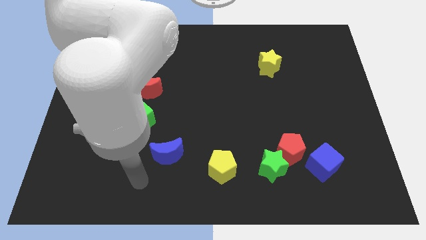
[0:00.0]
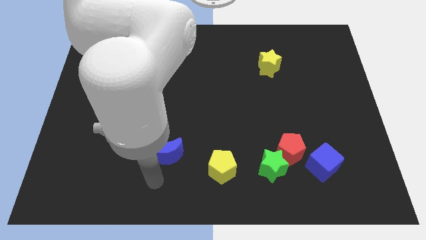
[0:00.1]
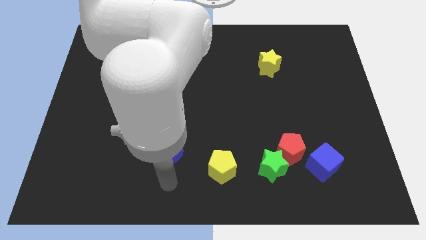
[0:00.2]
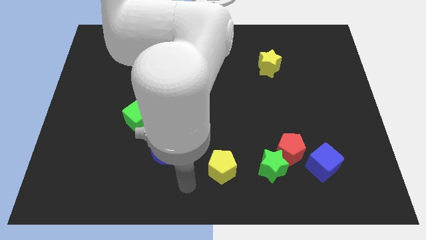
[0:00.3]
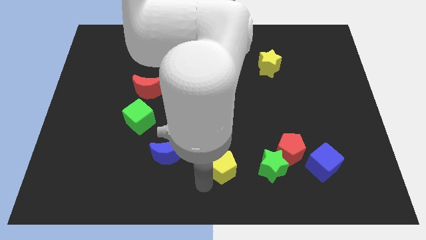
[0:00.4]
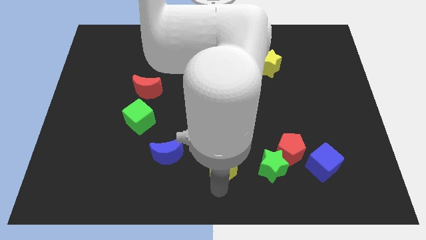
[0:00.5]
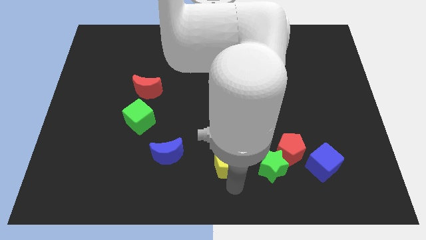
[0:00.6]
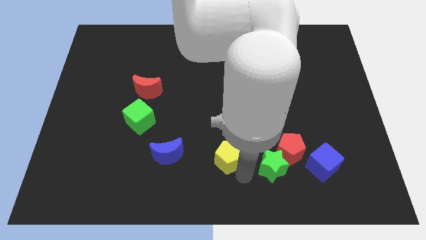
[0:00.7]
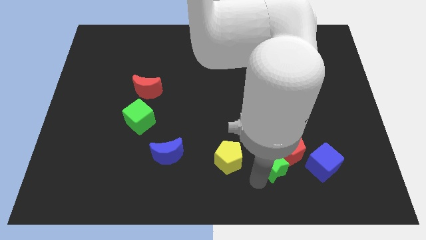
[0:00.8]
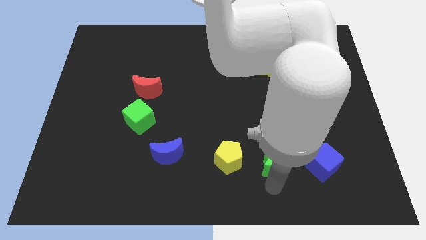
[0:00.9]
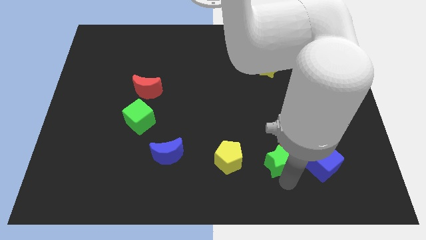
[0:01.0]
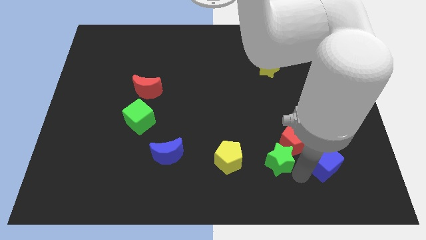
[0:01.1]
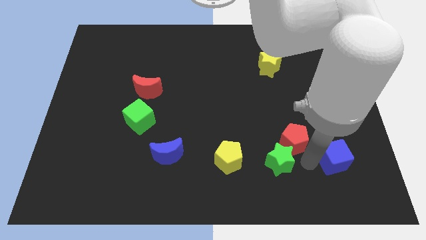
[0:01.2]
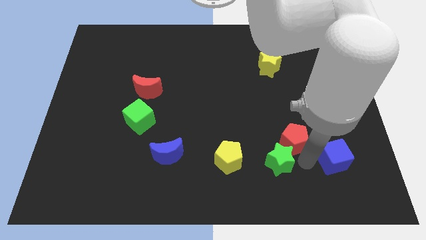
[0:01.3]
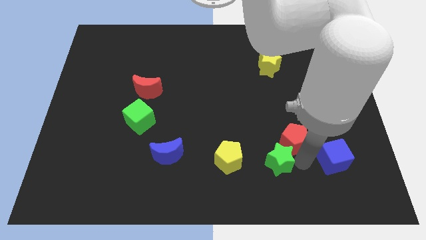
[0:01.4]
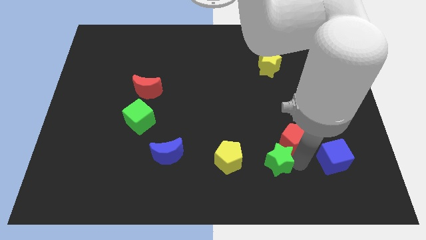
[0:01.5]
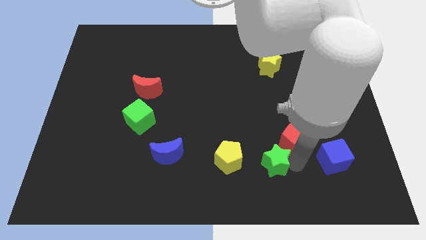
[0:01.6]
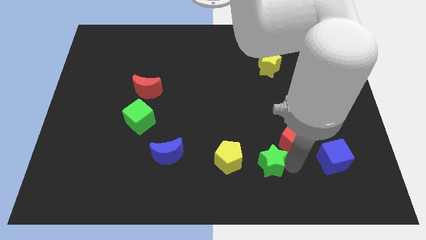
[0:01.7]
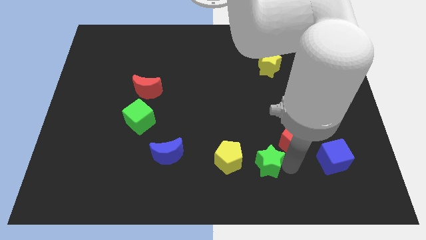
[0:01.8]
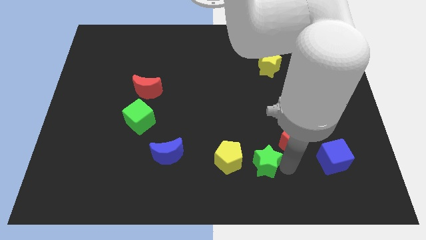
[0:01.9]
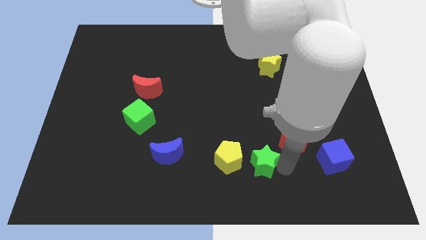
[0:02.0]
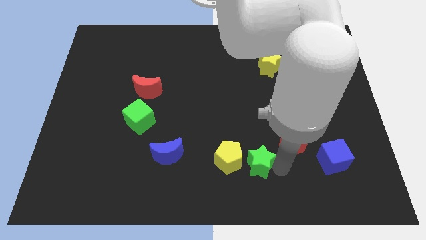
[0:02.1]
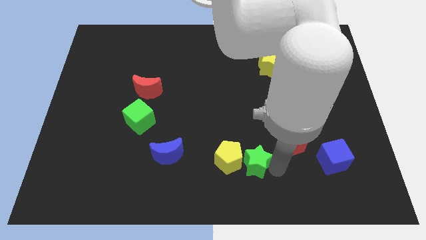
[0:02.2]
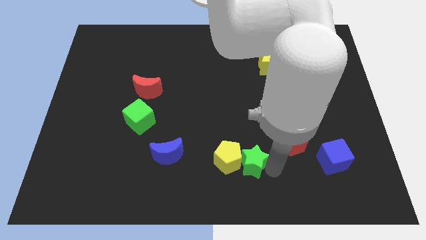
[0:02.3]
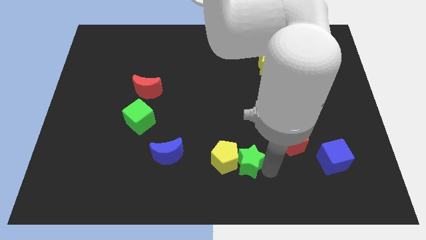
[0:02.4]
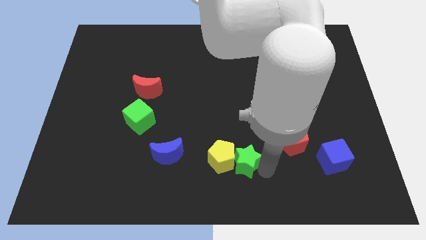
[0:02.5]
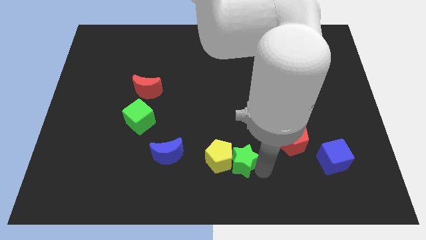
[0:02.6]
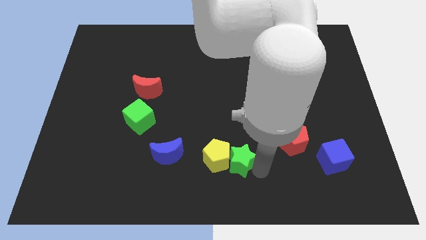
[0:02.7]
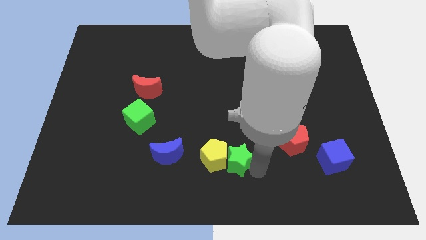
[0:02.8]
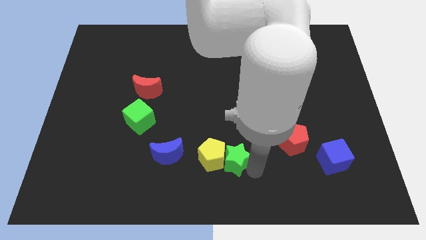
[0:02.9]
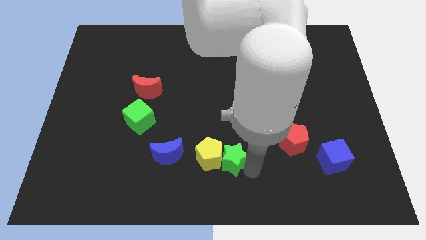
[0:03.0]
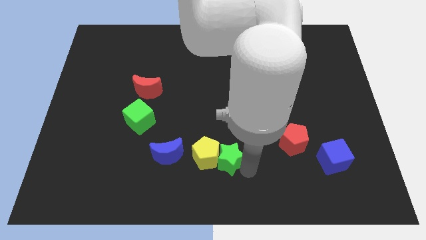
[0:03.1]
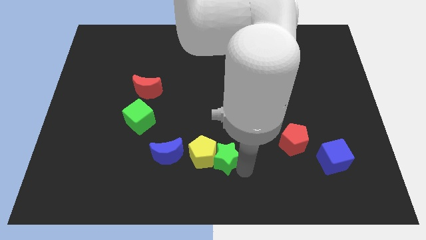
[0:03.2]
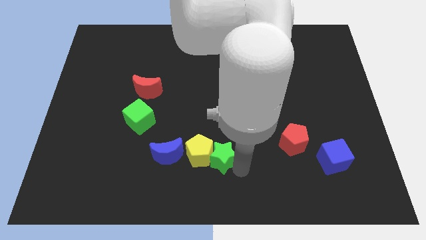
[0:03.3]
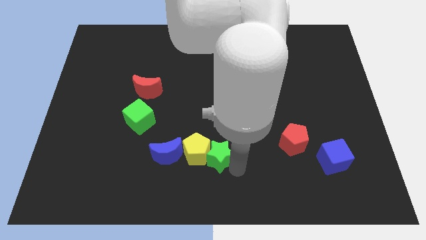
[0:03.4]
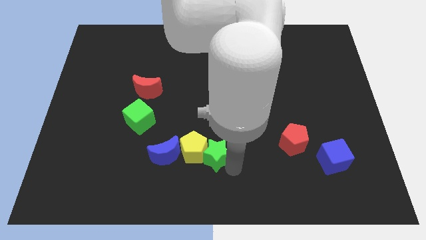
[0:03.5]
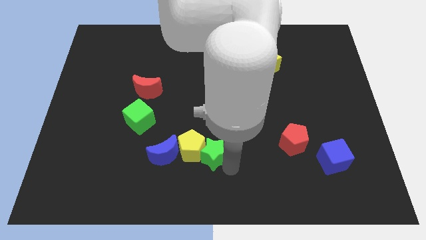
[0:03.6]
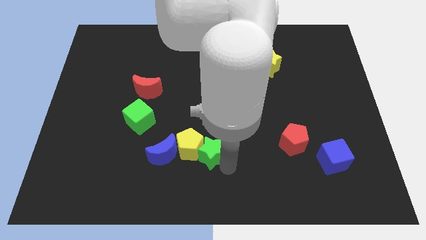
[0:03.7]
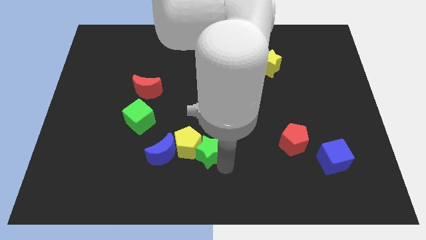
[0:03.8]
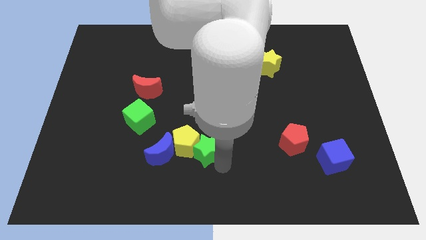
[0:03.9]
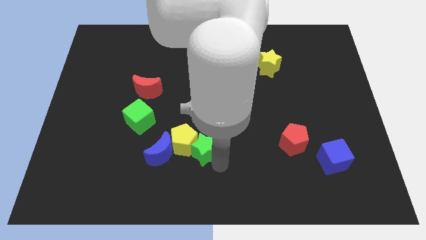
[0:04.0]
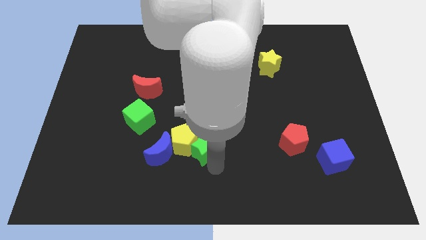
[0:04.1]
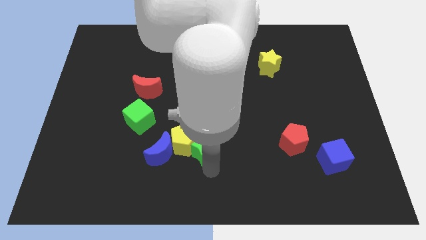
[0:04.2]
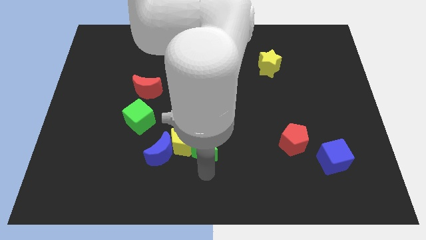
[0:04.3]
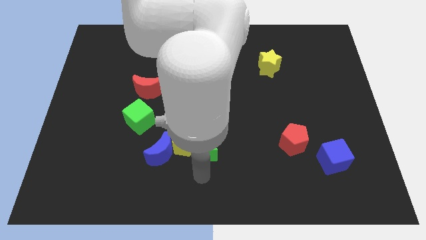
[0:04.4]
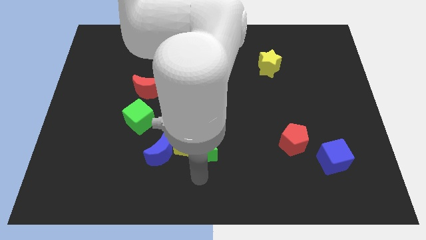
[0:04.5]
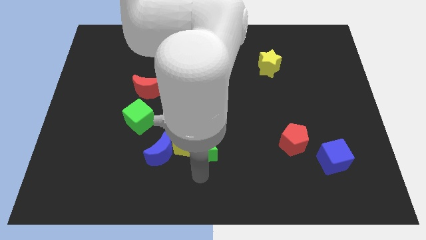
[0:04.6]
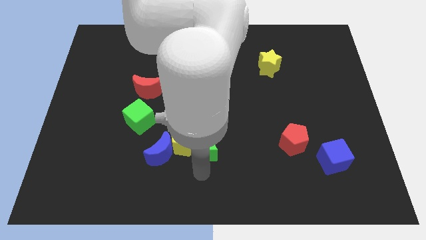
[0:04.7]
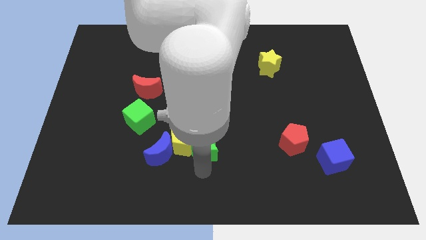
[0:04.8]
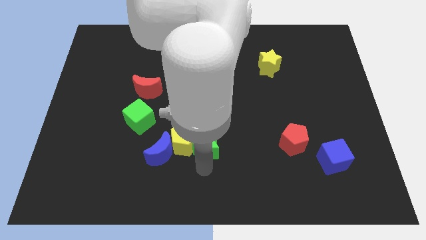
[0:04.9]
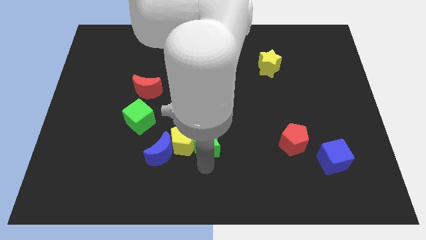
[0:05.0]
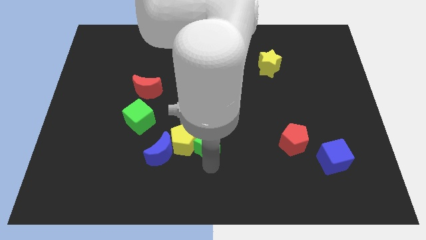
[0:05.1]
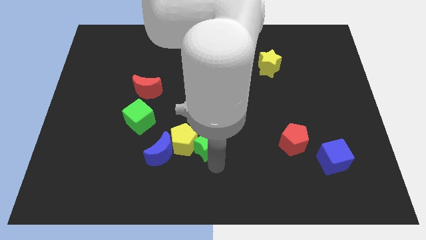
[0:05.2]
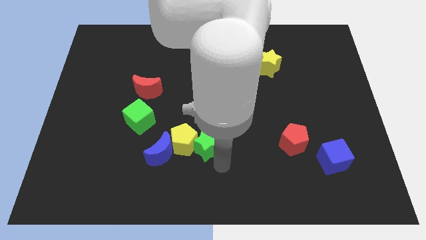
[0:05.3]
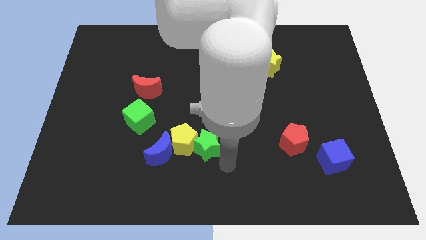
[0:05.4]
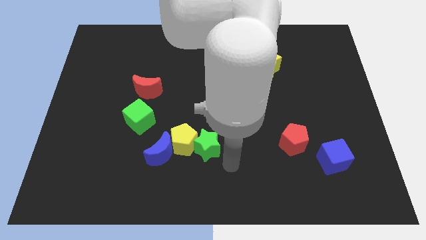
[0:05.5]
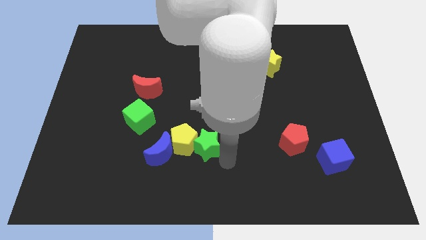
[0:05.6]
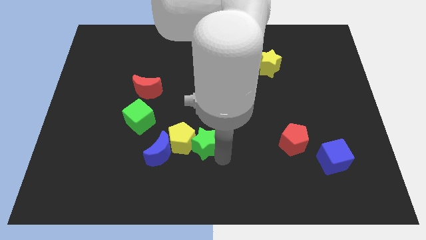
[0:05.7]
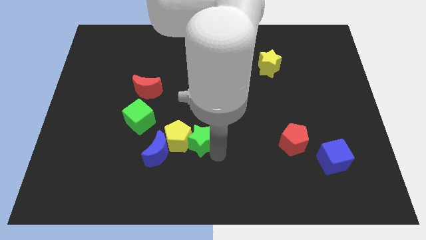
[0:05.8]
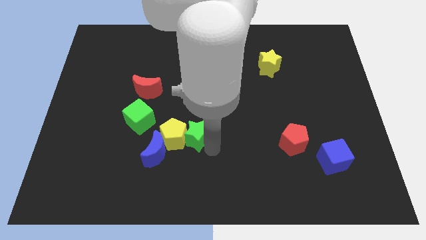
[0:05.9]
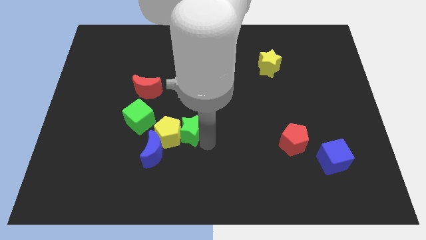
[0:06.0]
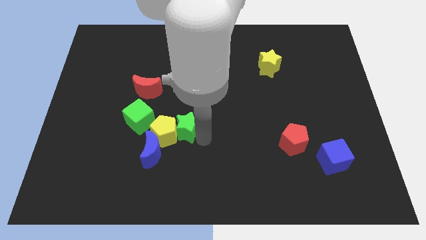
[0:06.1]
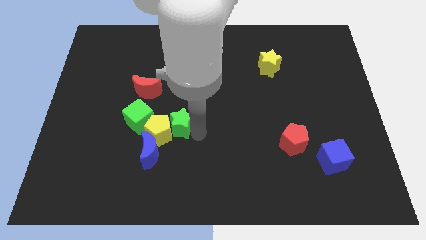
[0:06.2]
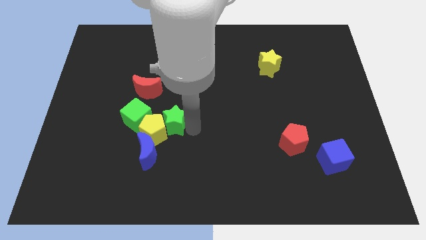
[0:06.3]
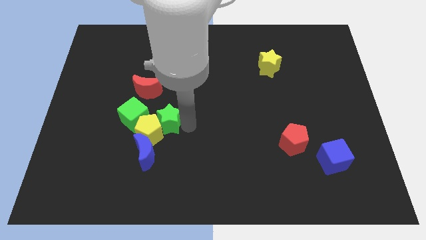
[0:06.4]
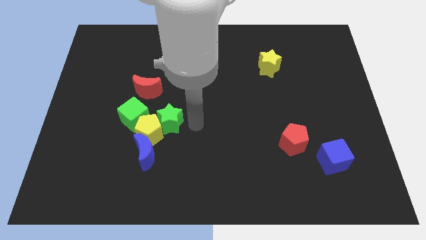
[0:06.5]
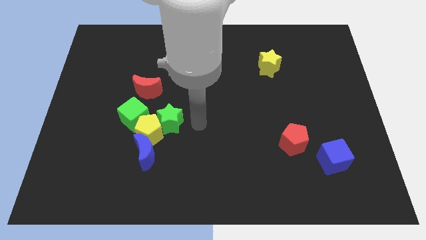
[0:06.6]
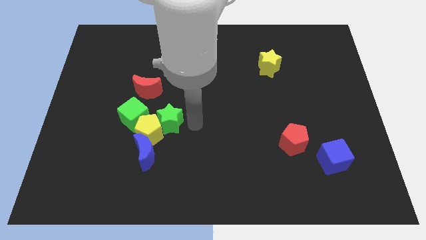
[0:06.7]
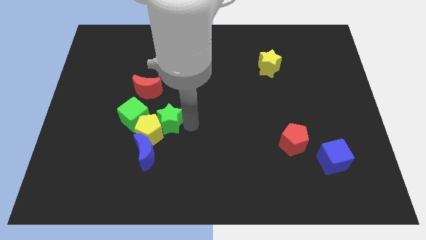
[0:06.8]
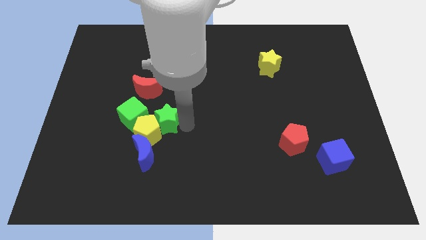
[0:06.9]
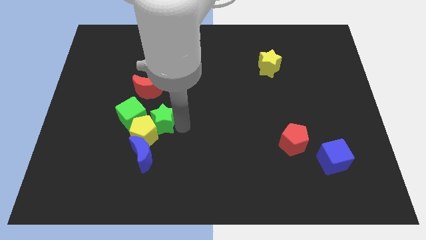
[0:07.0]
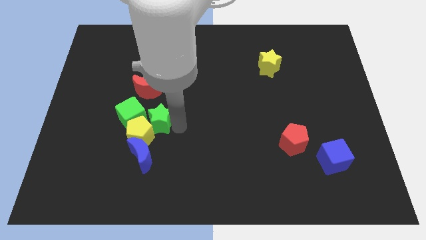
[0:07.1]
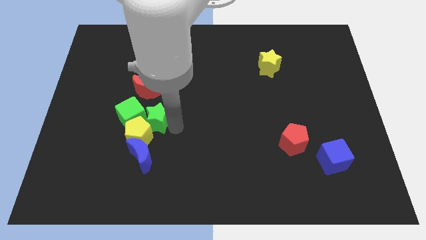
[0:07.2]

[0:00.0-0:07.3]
push the green star next to the green cube
